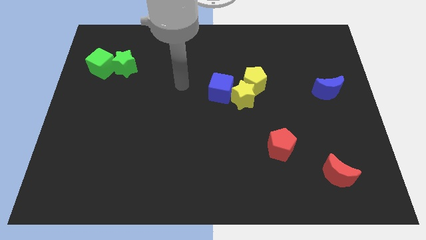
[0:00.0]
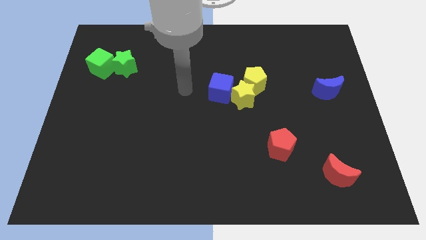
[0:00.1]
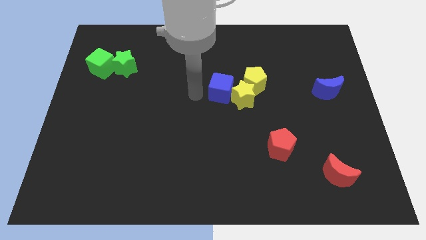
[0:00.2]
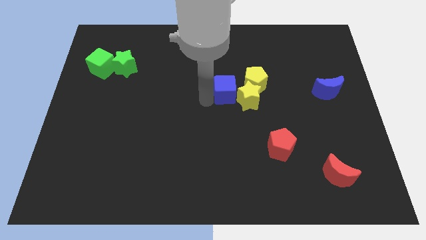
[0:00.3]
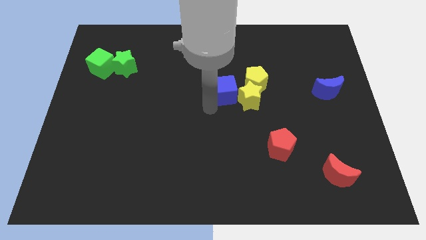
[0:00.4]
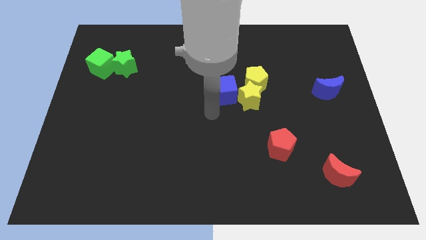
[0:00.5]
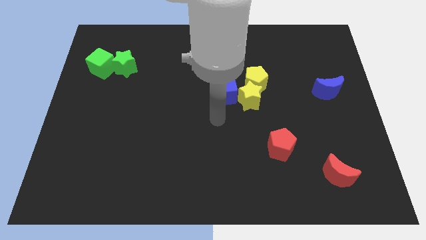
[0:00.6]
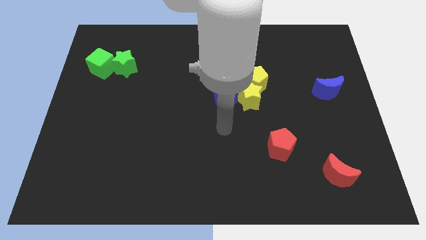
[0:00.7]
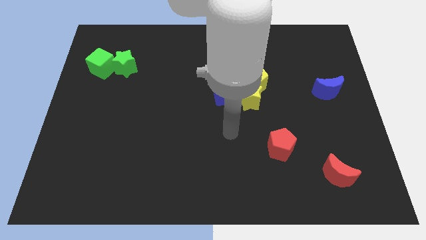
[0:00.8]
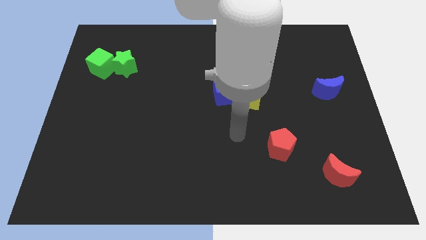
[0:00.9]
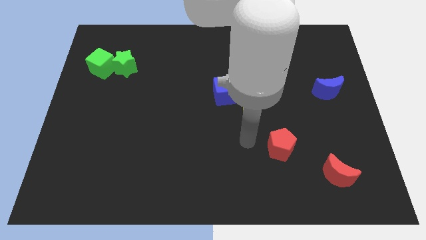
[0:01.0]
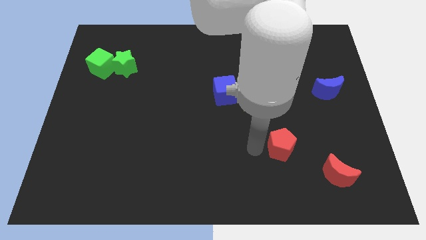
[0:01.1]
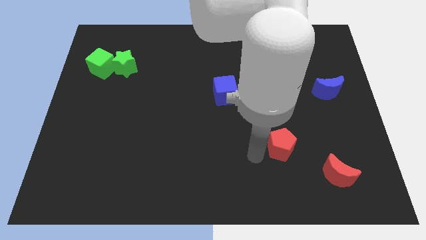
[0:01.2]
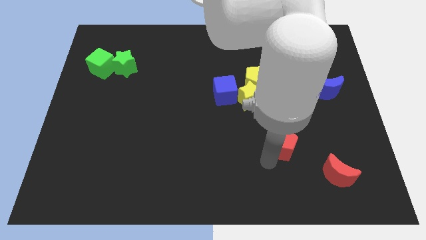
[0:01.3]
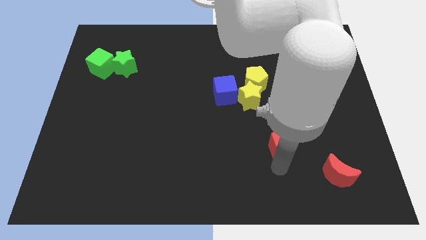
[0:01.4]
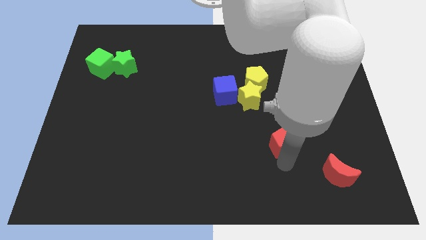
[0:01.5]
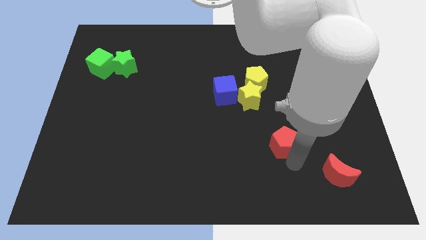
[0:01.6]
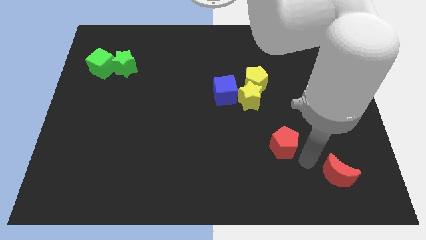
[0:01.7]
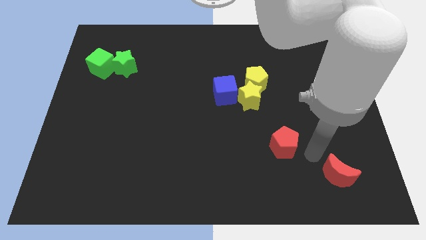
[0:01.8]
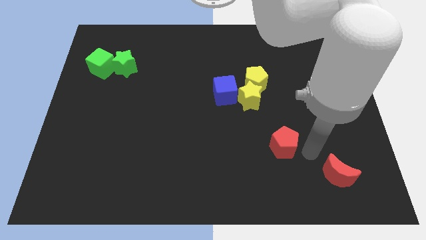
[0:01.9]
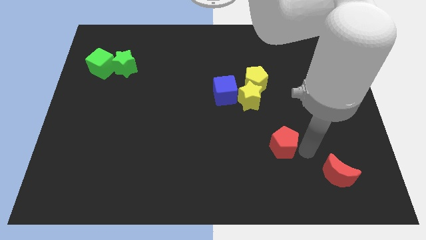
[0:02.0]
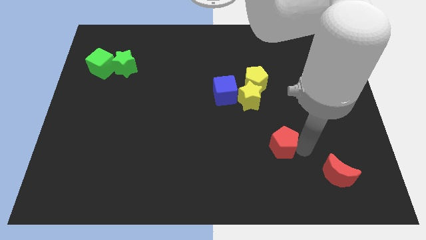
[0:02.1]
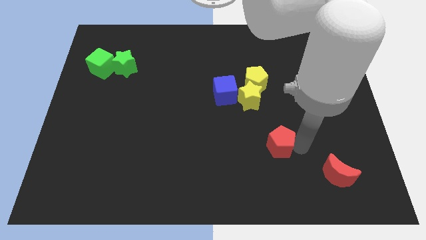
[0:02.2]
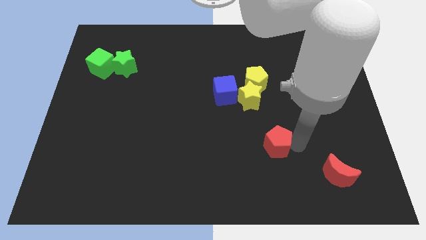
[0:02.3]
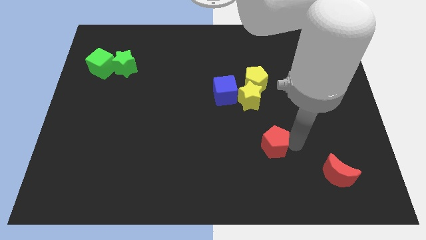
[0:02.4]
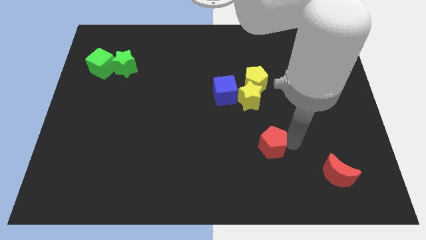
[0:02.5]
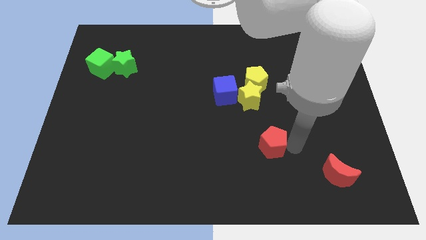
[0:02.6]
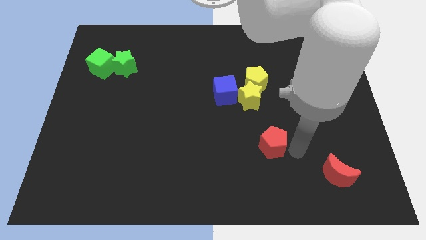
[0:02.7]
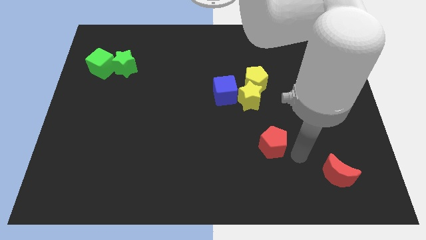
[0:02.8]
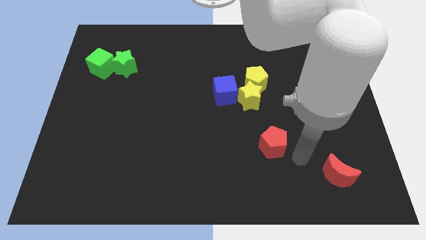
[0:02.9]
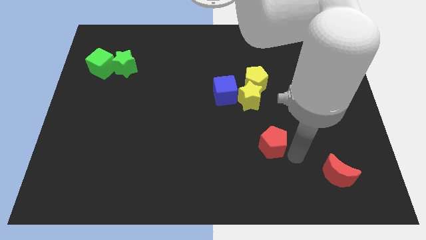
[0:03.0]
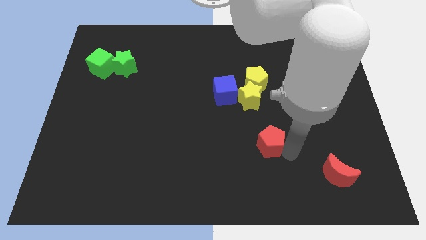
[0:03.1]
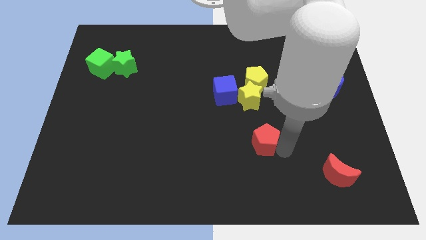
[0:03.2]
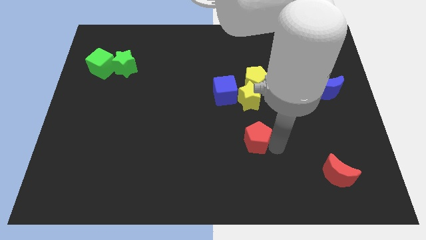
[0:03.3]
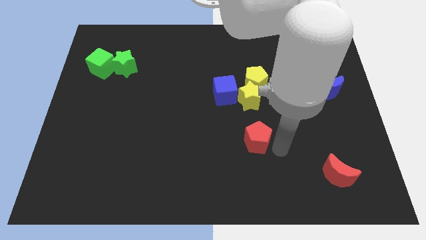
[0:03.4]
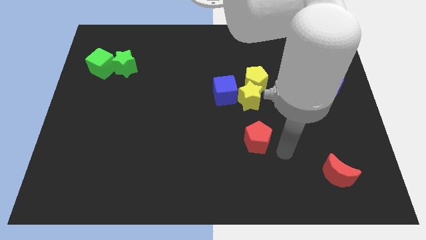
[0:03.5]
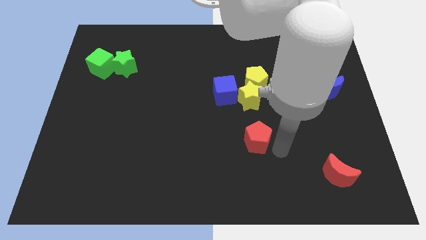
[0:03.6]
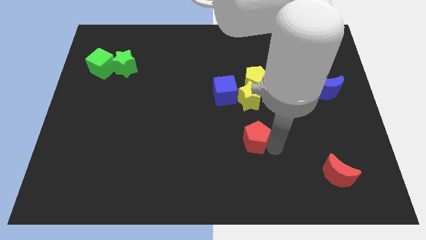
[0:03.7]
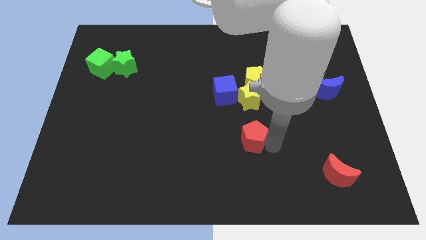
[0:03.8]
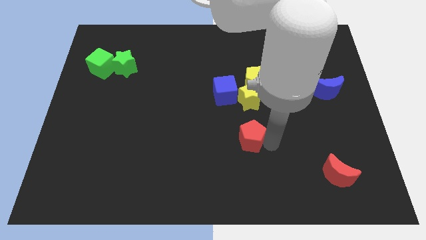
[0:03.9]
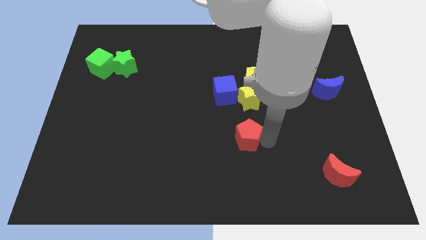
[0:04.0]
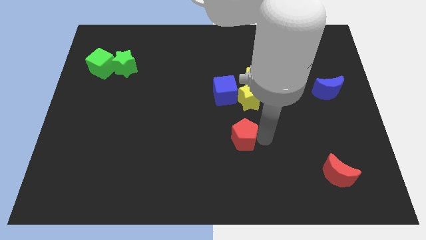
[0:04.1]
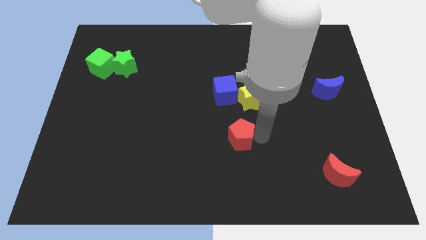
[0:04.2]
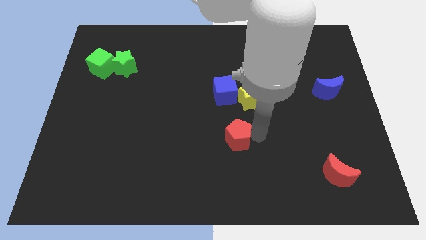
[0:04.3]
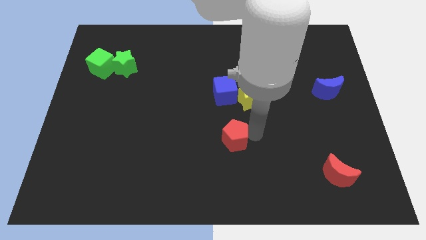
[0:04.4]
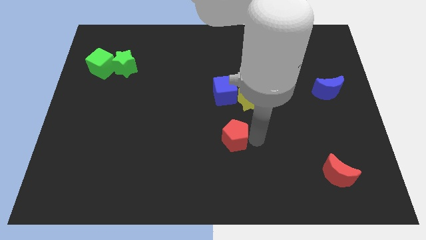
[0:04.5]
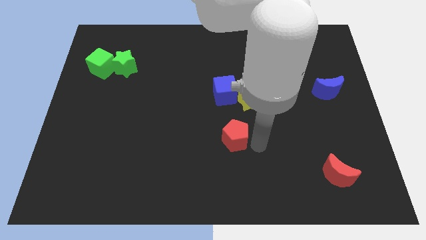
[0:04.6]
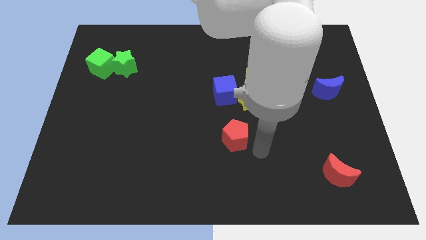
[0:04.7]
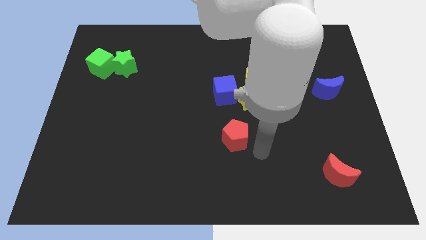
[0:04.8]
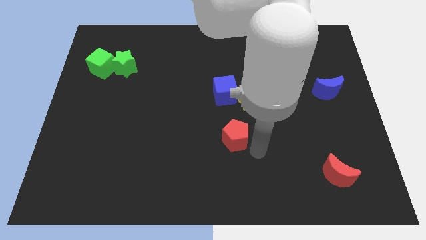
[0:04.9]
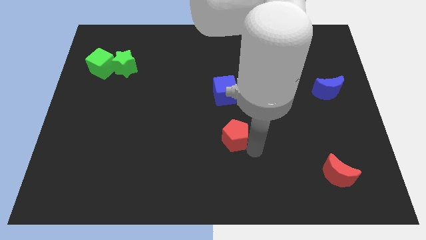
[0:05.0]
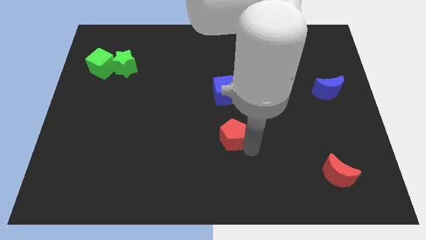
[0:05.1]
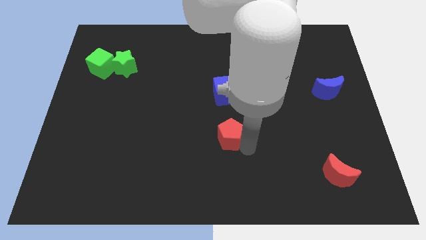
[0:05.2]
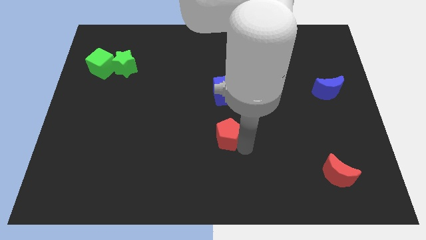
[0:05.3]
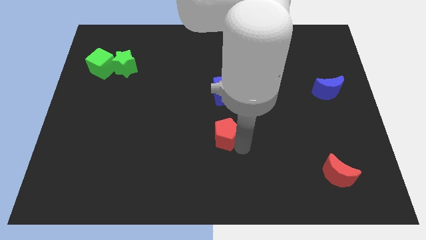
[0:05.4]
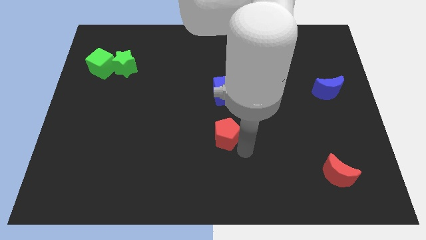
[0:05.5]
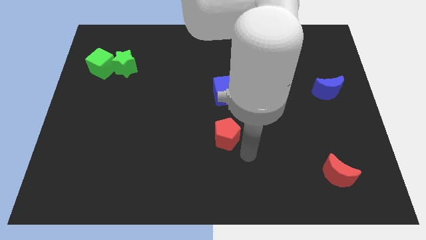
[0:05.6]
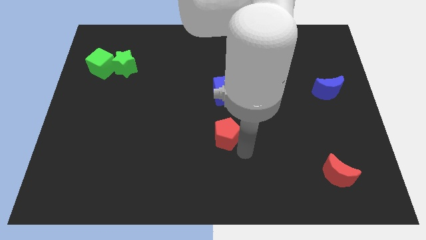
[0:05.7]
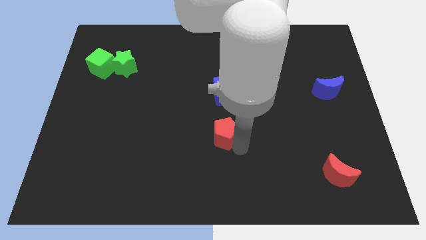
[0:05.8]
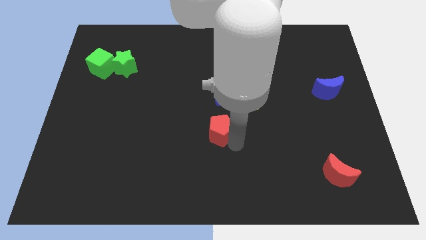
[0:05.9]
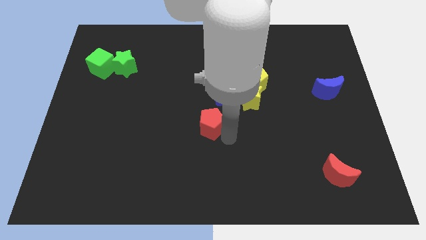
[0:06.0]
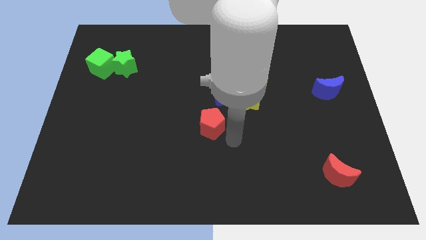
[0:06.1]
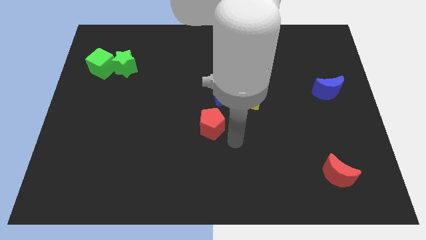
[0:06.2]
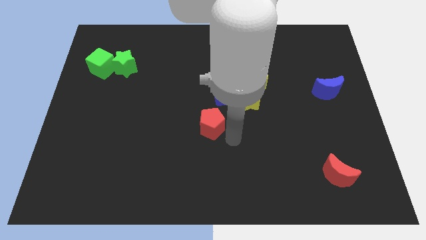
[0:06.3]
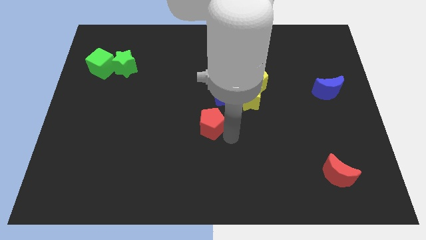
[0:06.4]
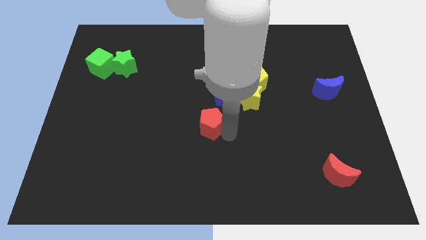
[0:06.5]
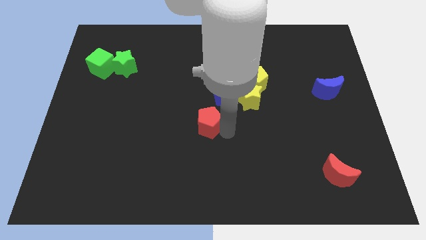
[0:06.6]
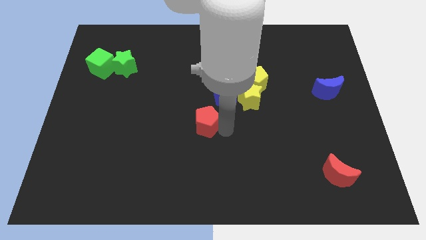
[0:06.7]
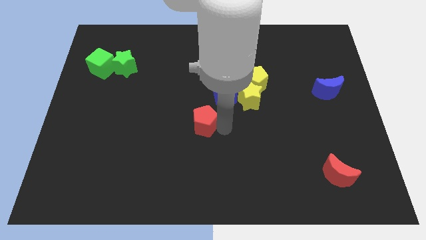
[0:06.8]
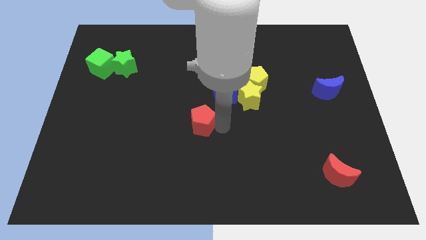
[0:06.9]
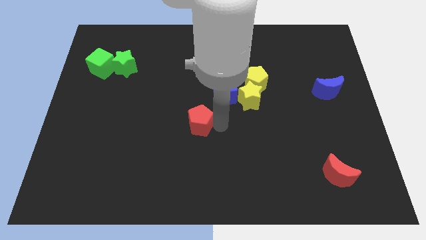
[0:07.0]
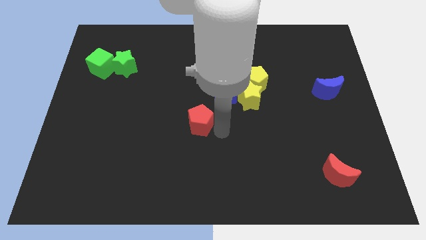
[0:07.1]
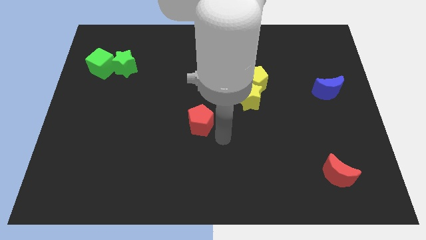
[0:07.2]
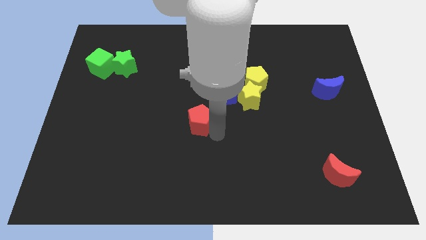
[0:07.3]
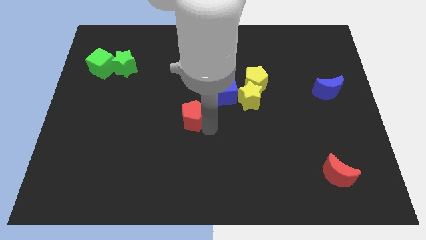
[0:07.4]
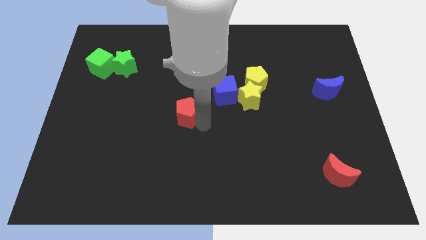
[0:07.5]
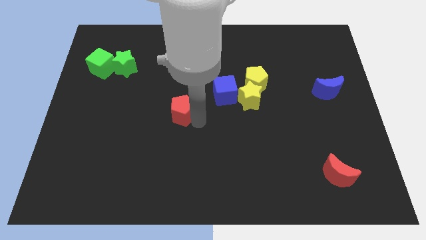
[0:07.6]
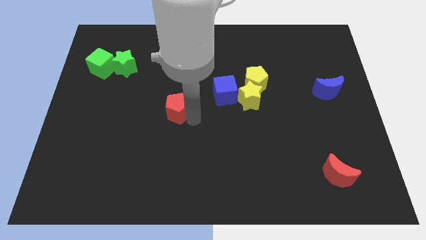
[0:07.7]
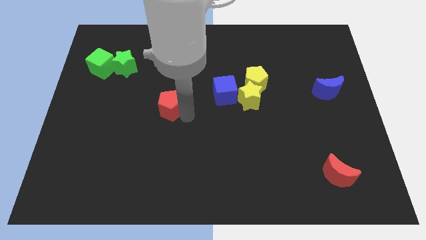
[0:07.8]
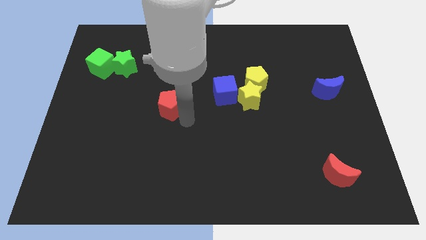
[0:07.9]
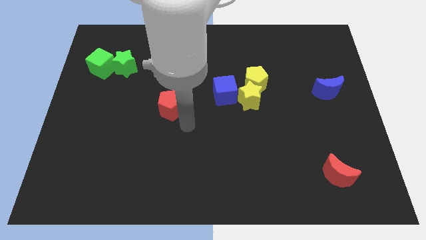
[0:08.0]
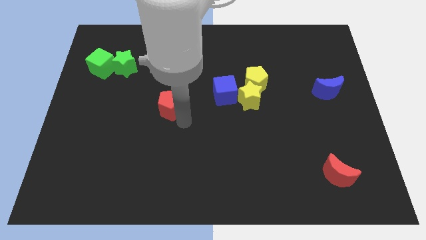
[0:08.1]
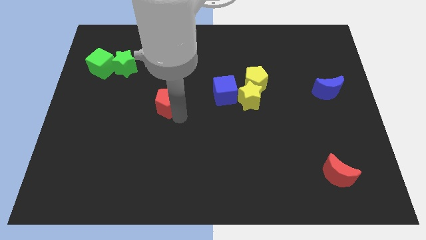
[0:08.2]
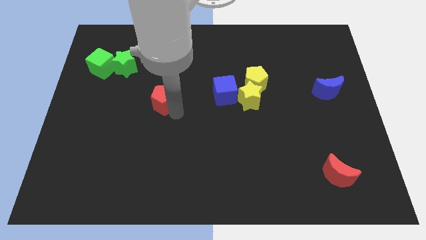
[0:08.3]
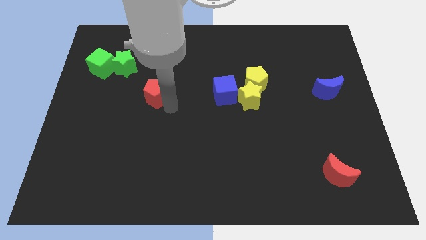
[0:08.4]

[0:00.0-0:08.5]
push the red pentagon to the bottom right of the green star
